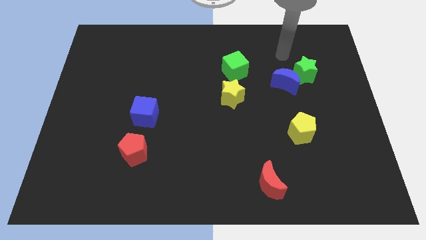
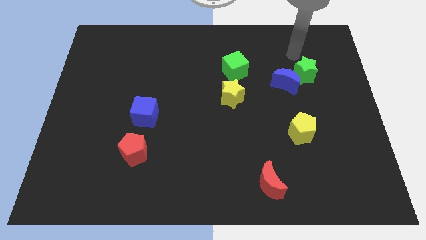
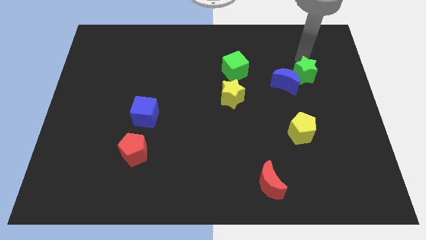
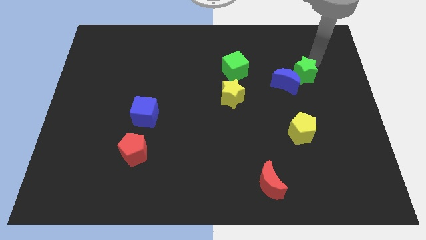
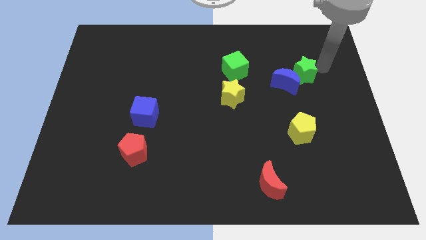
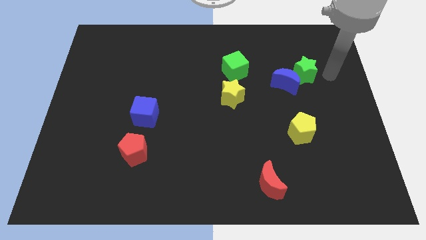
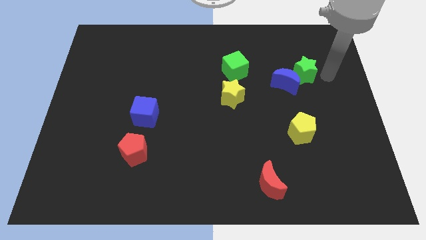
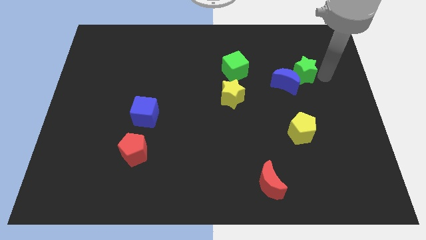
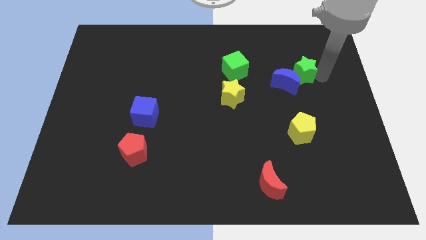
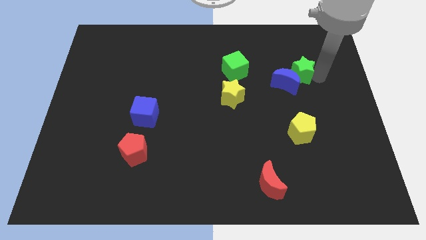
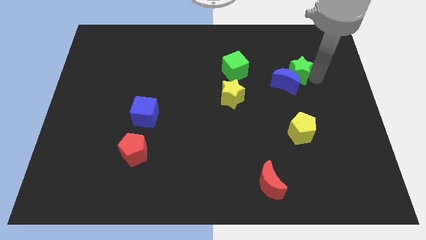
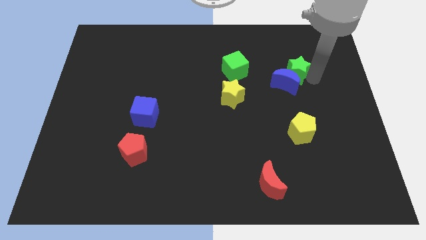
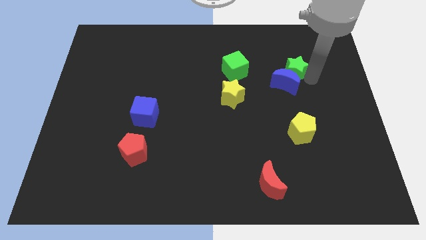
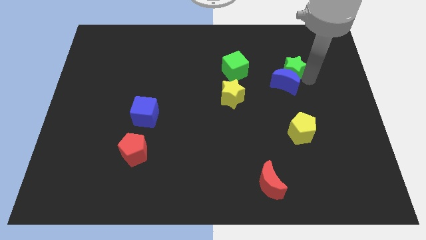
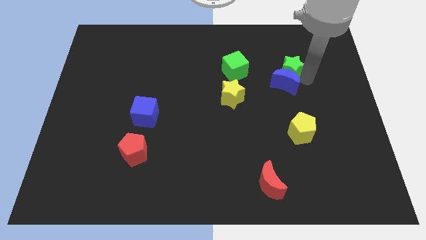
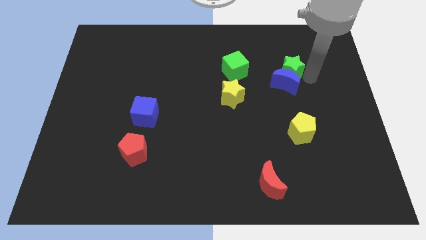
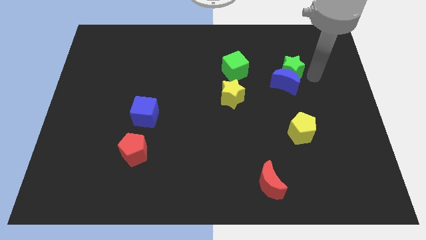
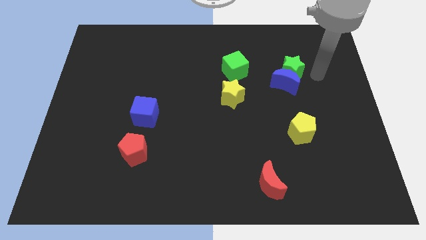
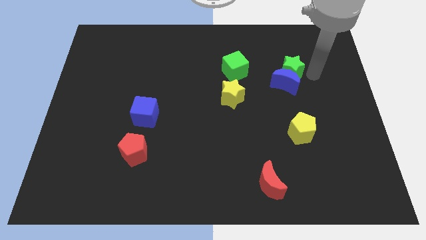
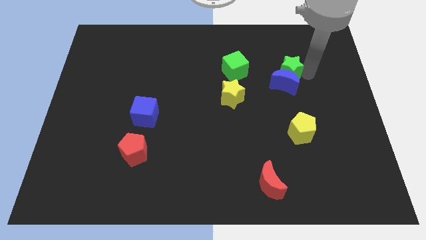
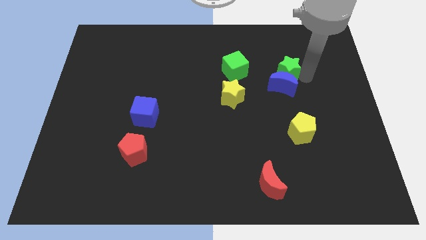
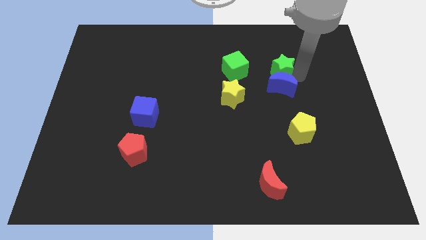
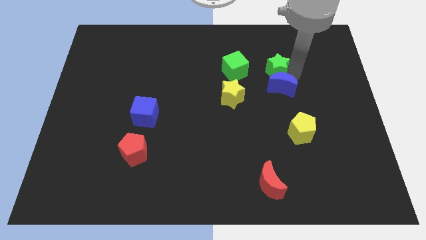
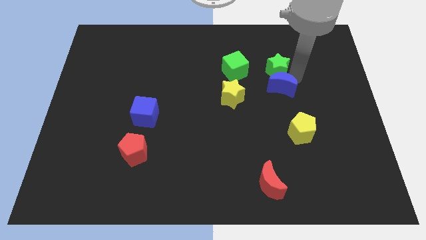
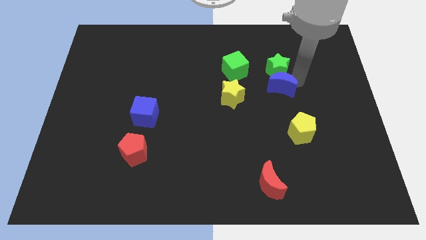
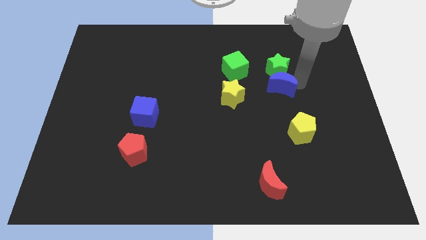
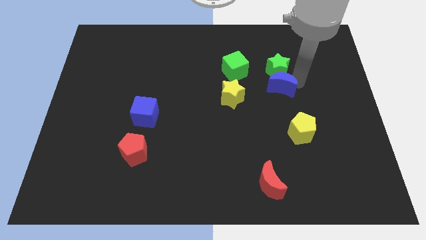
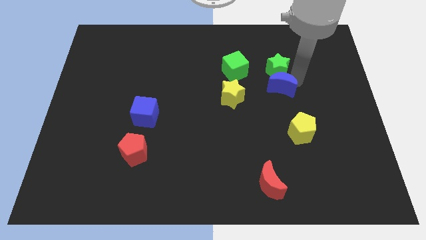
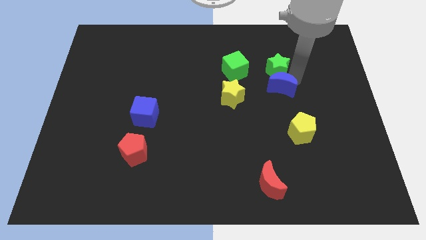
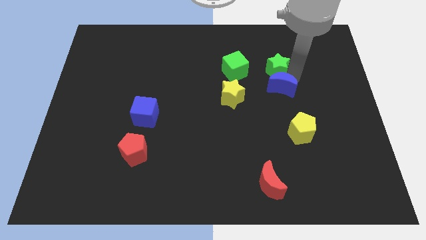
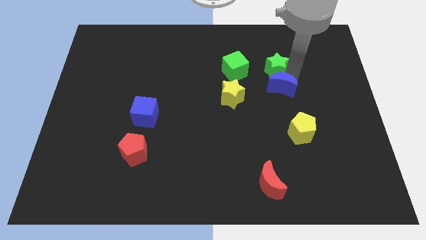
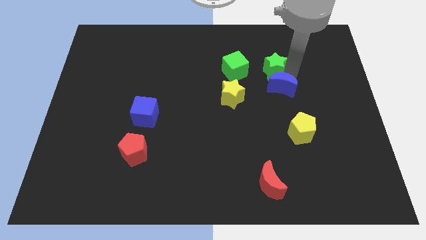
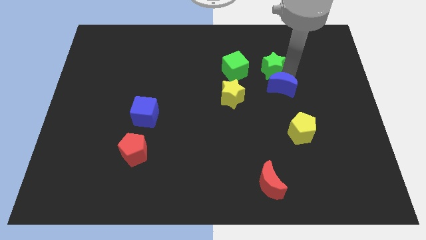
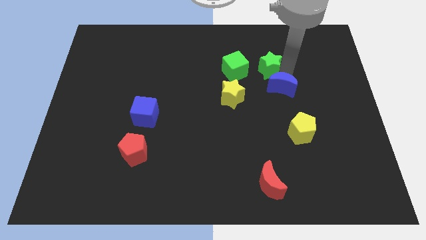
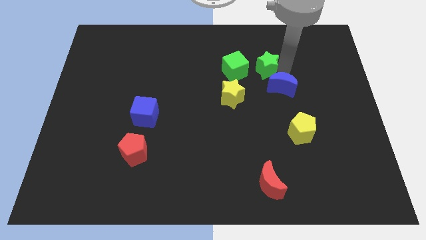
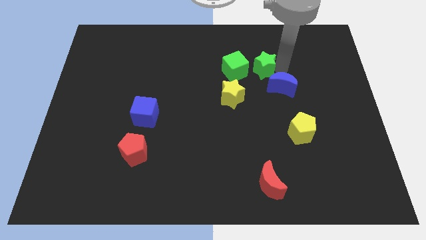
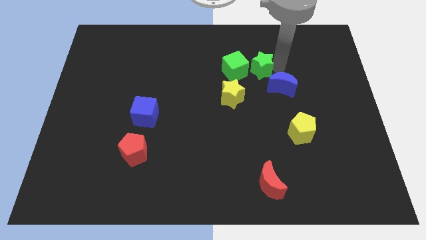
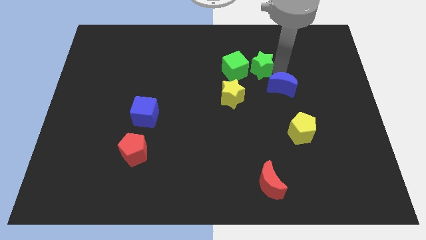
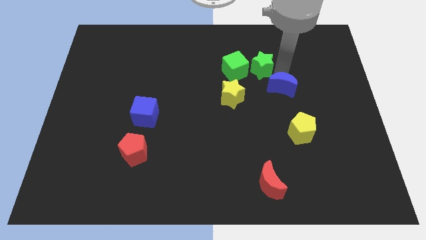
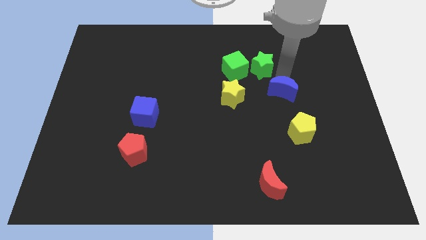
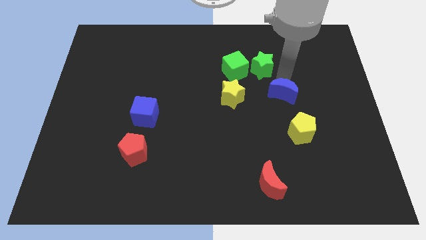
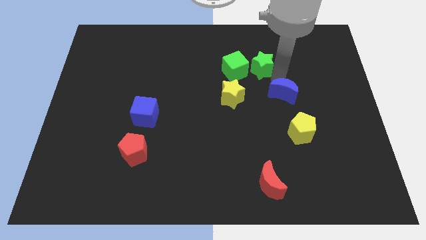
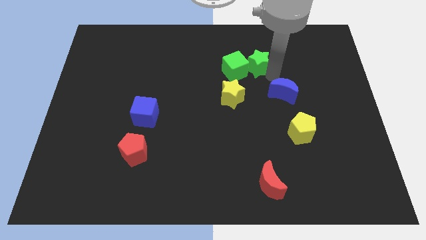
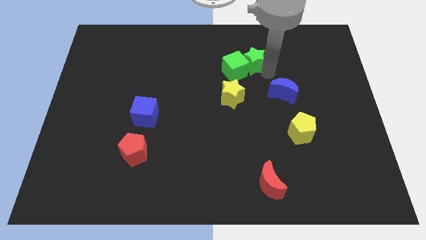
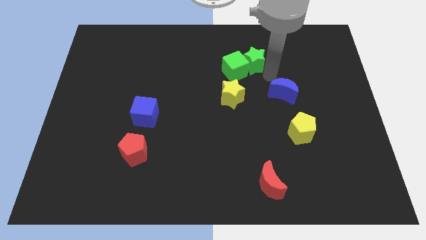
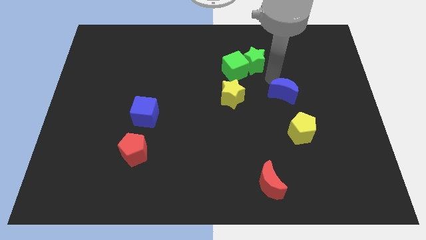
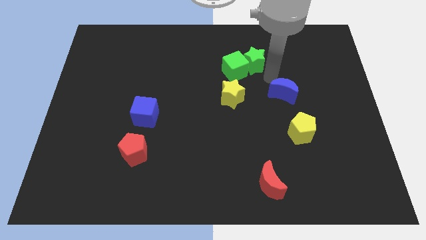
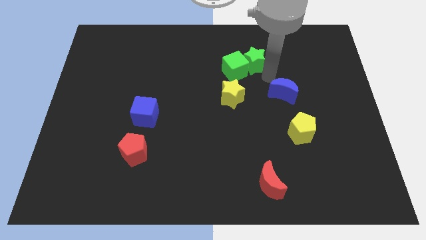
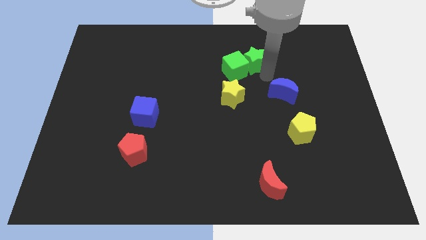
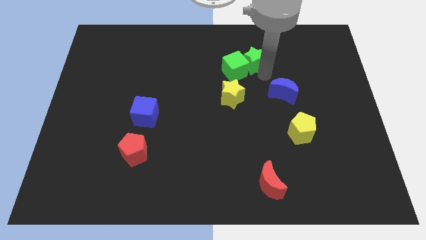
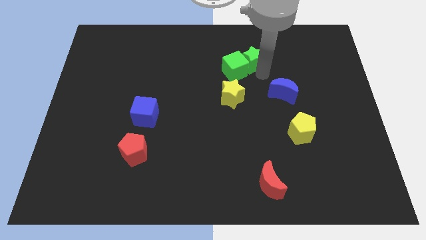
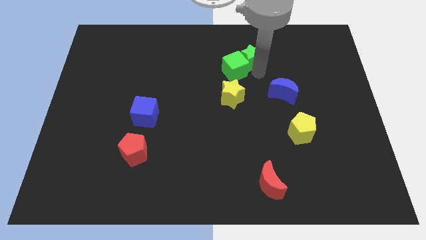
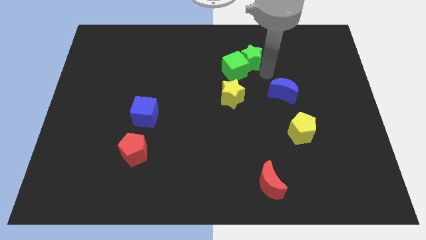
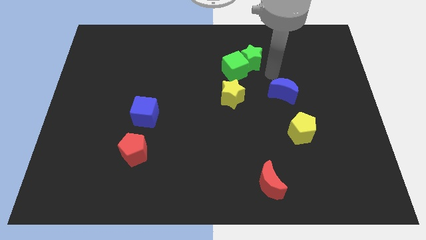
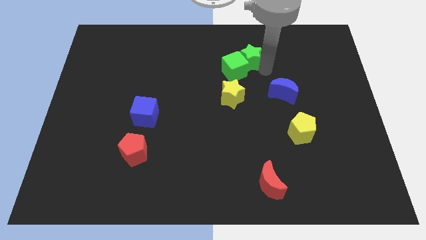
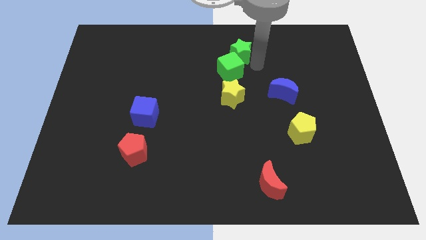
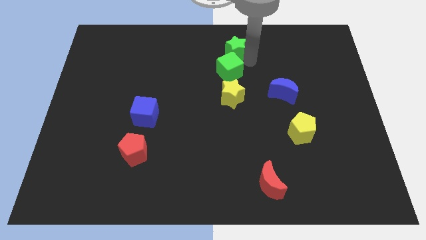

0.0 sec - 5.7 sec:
push the green star to the towards your base

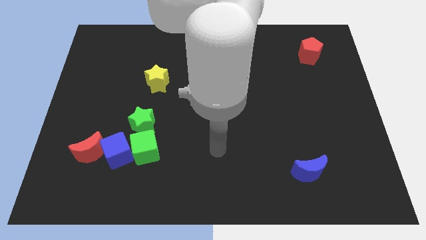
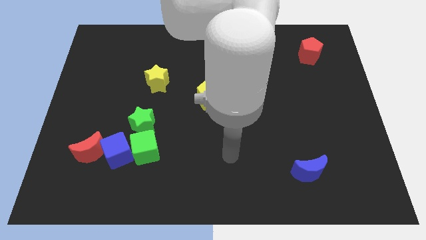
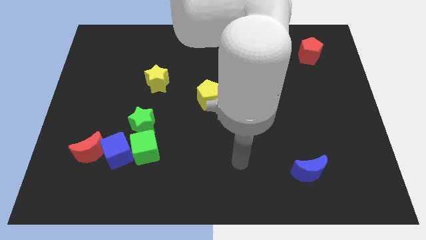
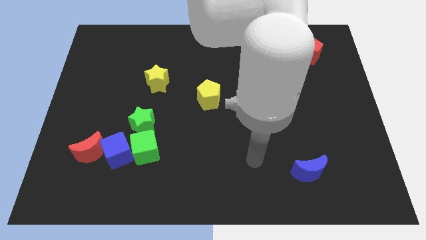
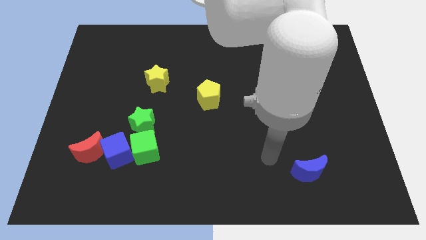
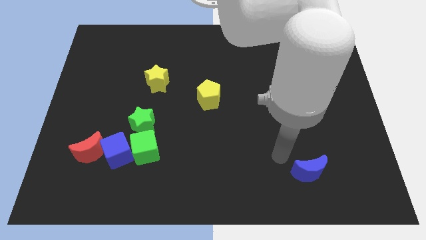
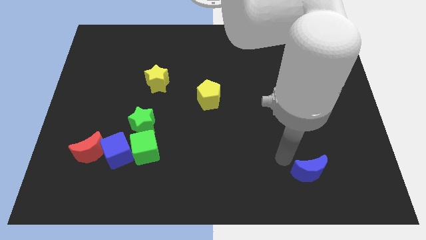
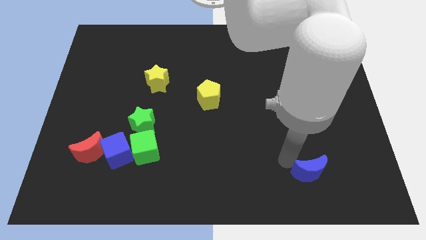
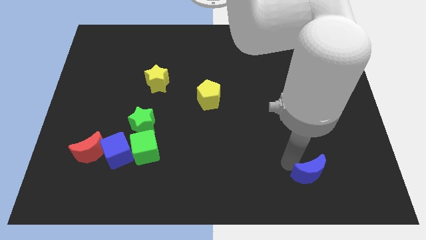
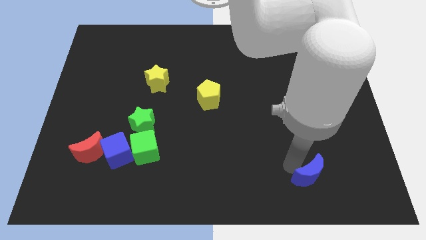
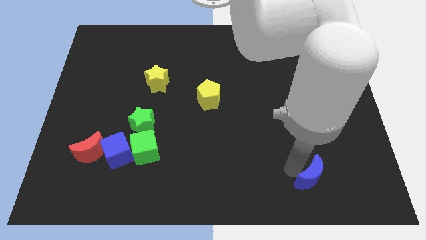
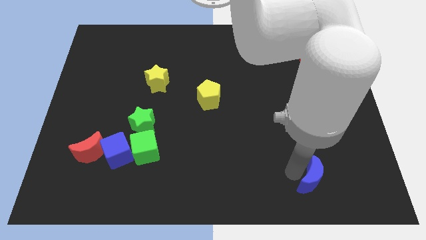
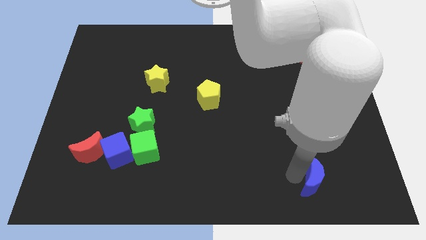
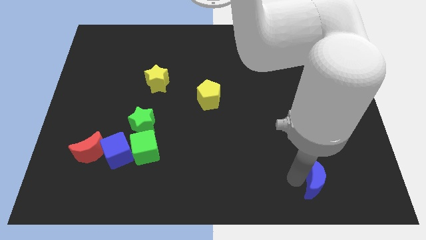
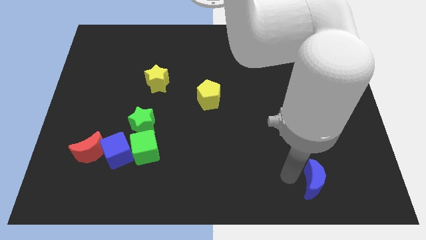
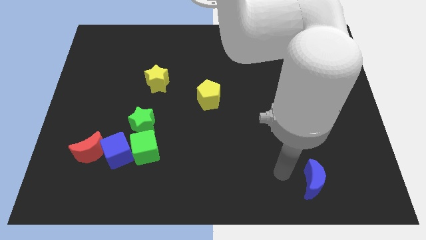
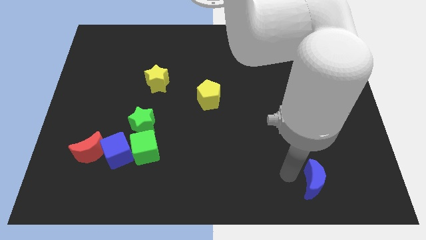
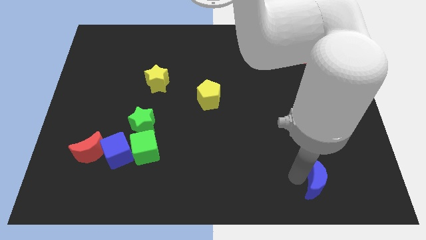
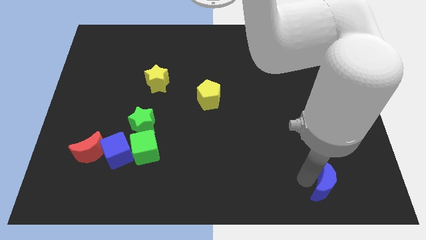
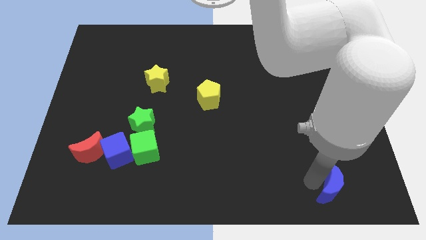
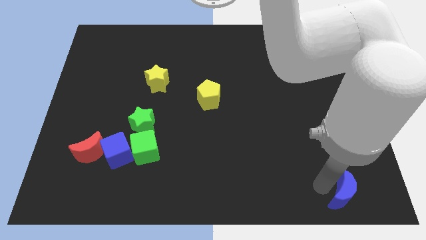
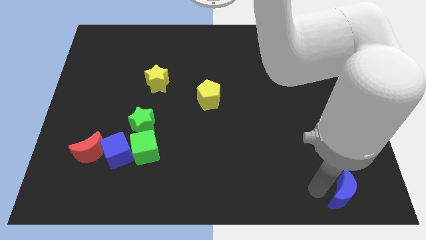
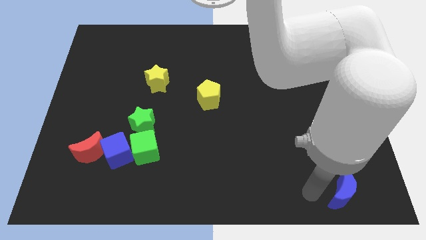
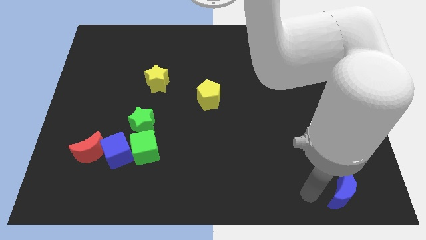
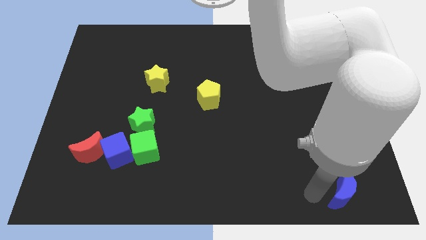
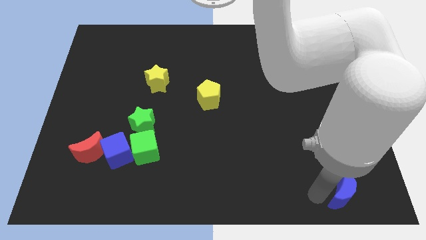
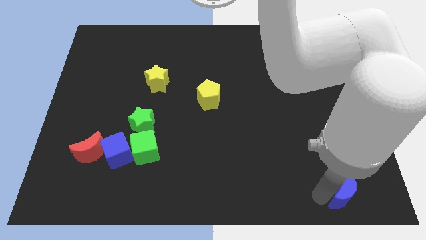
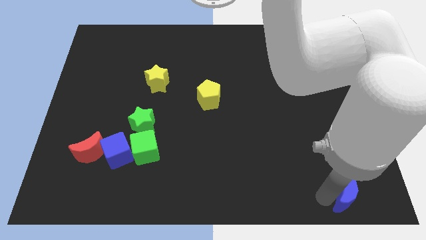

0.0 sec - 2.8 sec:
put the blue moon to the bottom right of the board
